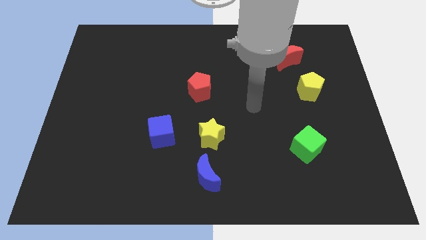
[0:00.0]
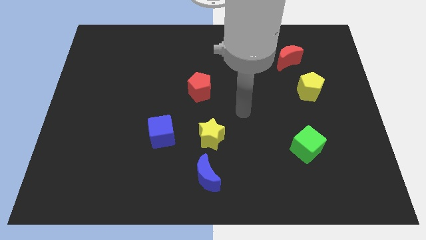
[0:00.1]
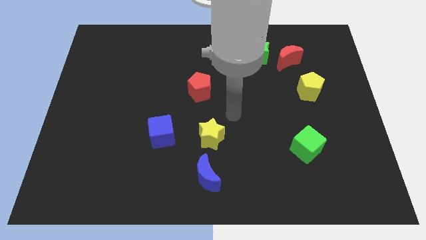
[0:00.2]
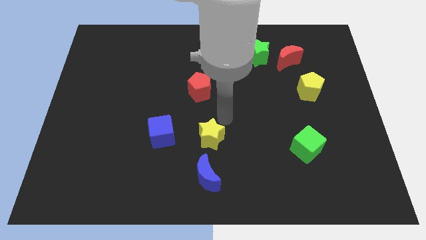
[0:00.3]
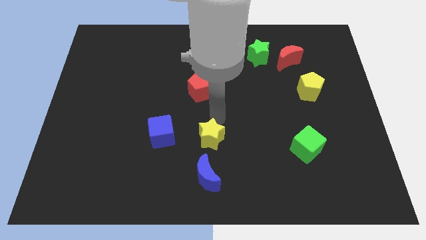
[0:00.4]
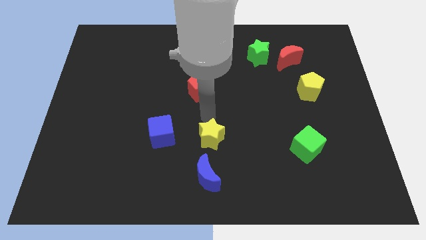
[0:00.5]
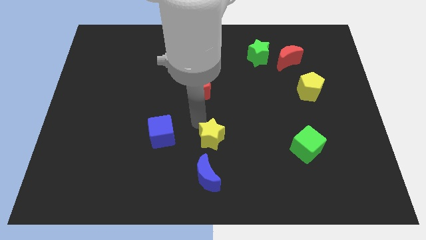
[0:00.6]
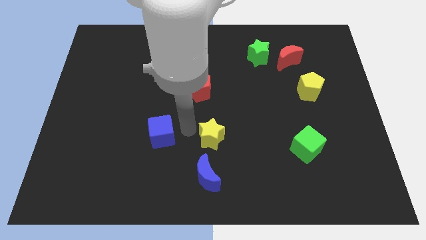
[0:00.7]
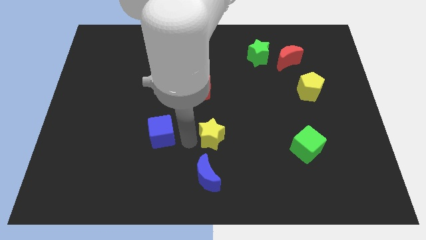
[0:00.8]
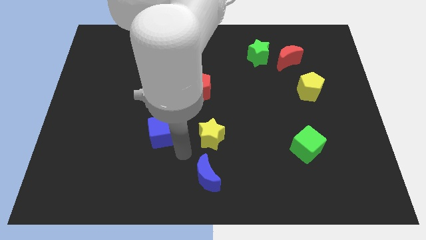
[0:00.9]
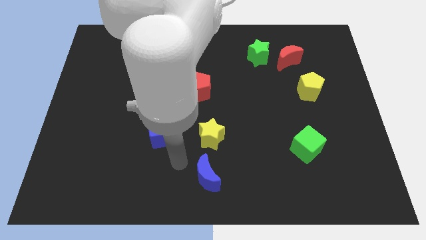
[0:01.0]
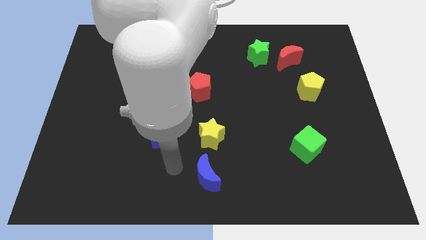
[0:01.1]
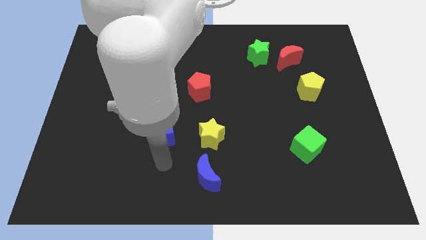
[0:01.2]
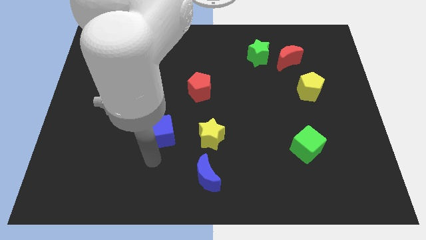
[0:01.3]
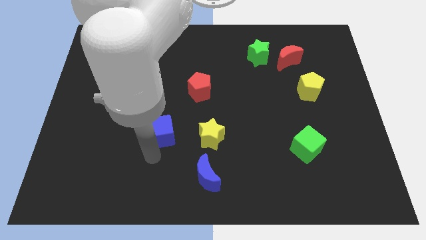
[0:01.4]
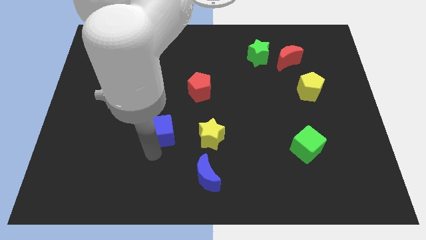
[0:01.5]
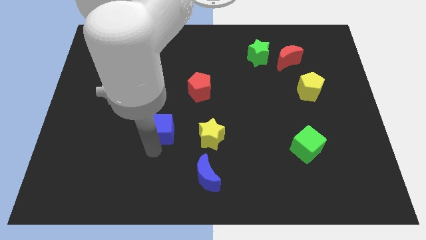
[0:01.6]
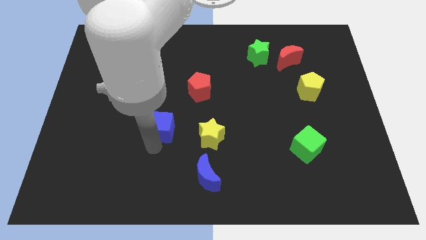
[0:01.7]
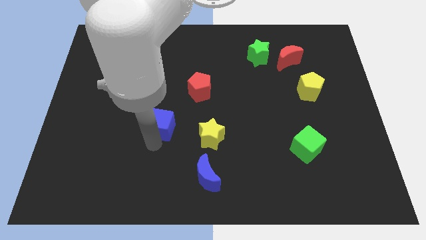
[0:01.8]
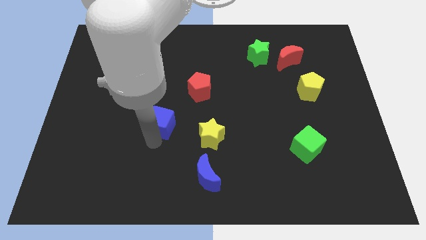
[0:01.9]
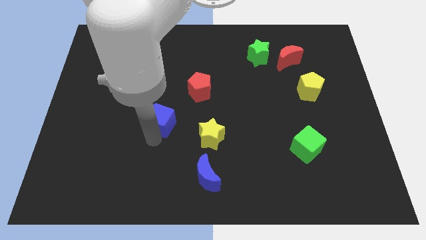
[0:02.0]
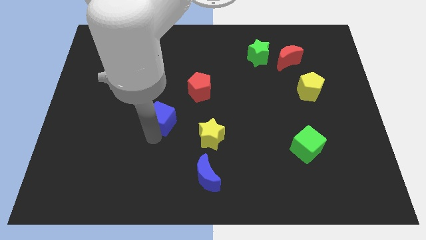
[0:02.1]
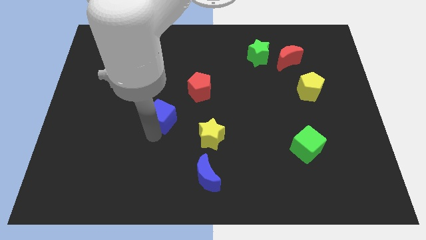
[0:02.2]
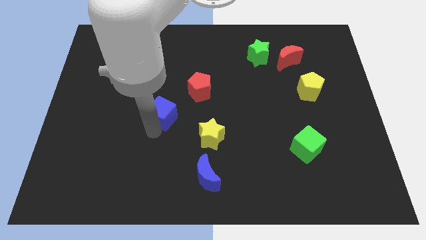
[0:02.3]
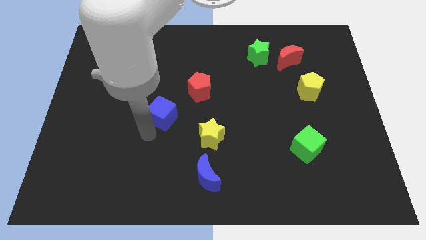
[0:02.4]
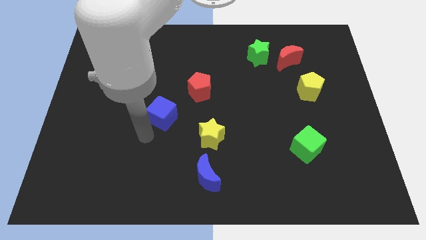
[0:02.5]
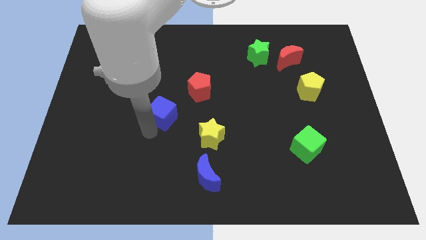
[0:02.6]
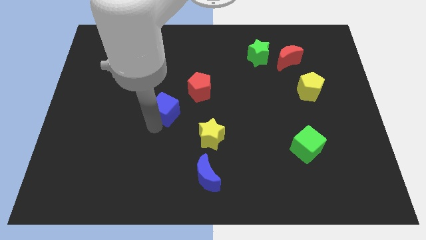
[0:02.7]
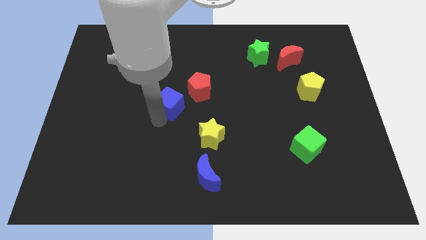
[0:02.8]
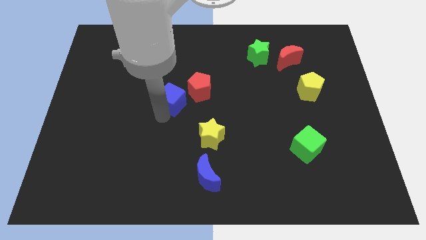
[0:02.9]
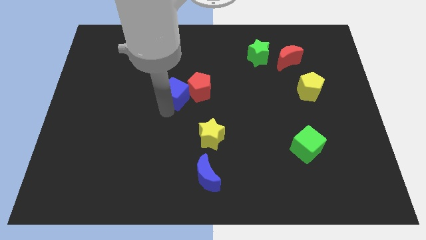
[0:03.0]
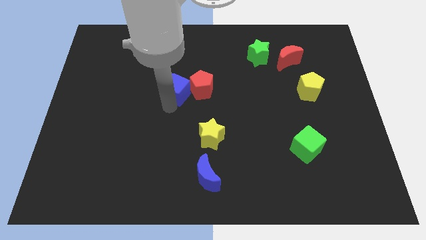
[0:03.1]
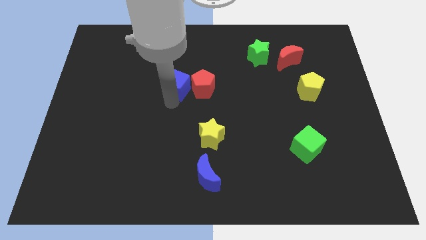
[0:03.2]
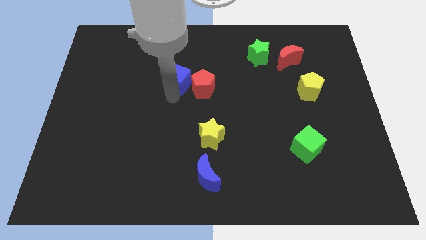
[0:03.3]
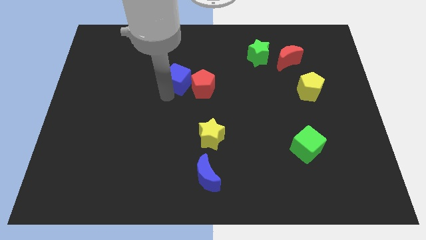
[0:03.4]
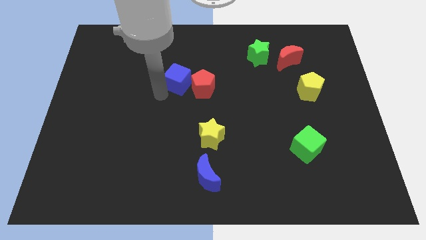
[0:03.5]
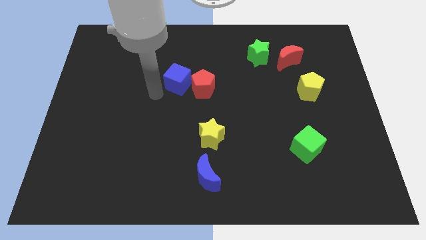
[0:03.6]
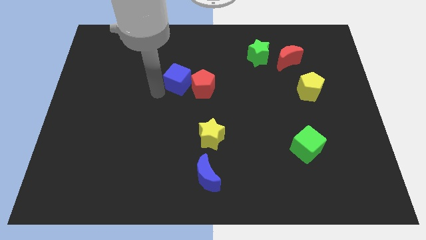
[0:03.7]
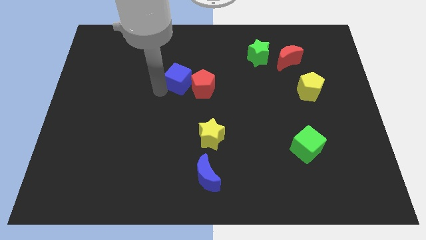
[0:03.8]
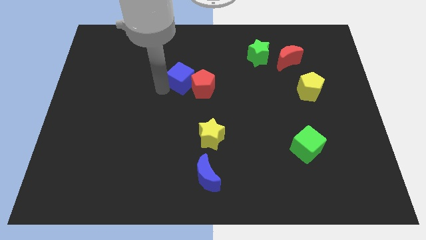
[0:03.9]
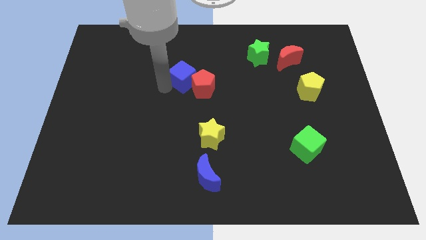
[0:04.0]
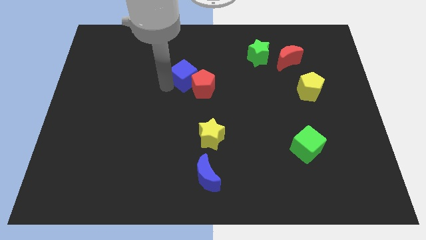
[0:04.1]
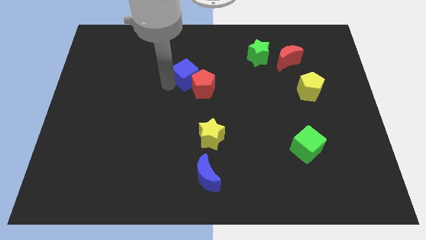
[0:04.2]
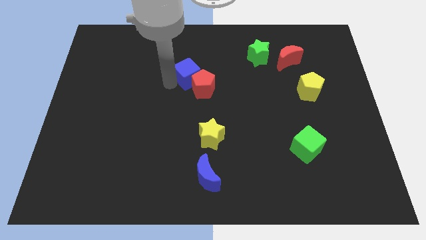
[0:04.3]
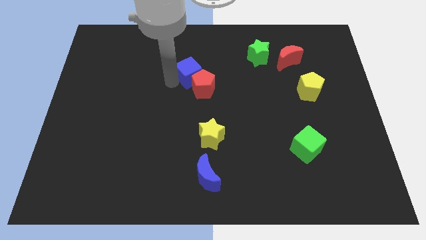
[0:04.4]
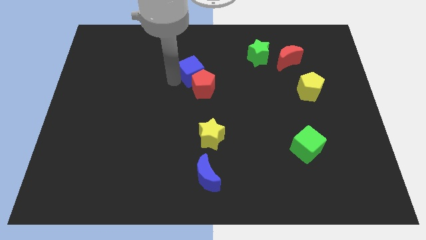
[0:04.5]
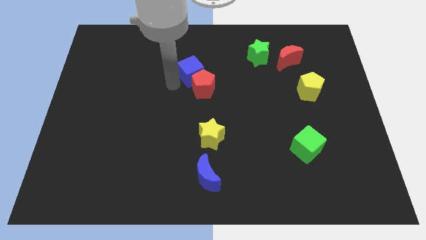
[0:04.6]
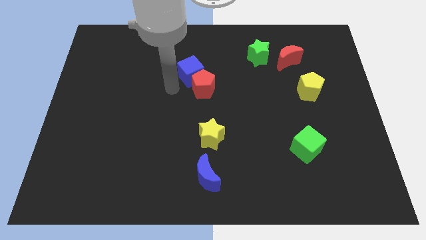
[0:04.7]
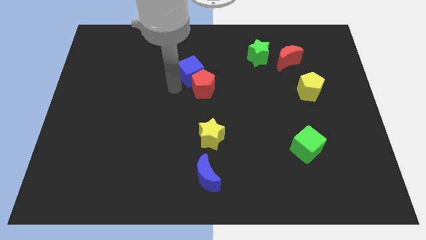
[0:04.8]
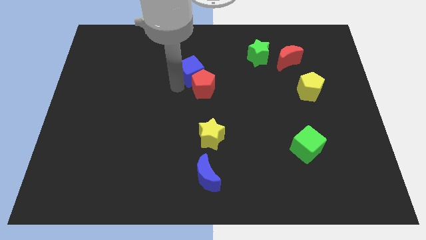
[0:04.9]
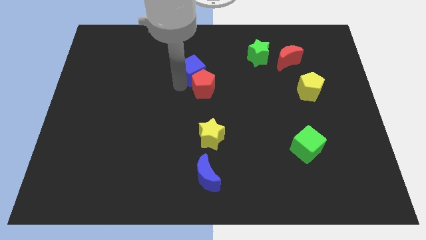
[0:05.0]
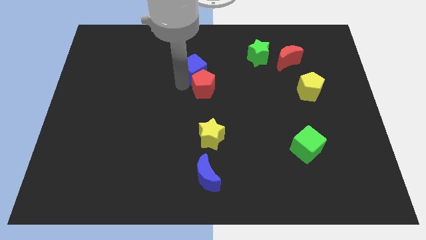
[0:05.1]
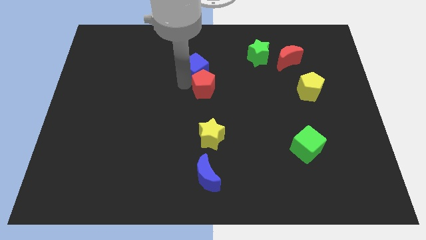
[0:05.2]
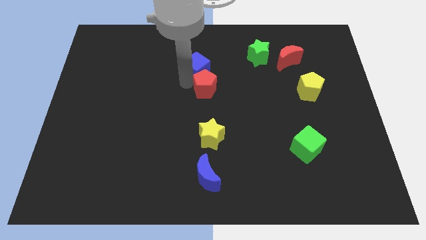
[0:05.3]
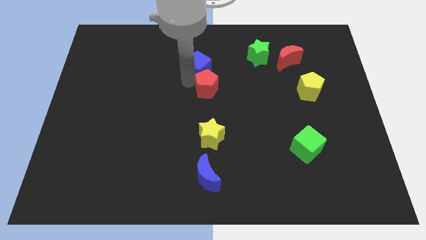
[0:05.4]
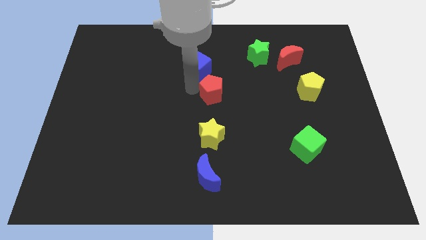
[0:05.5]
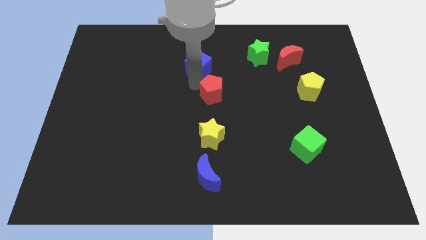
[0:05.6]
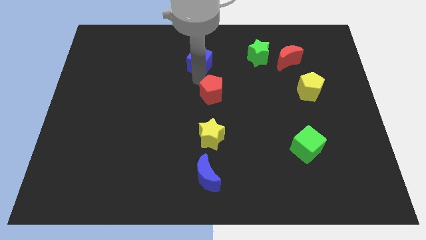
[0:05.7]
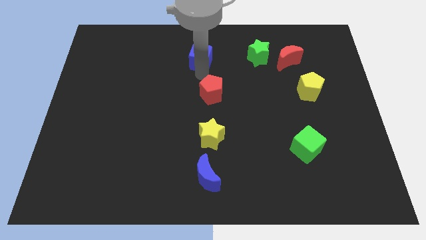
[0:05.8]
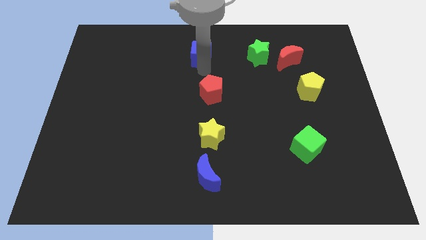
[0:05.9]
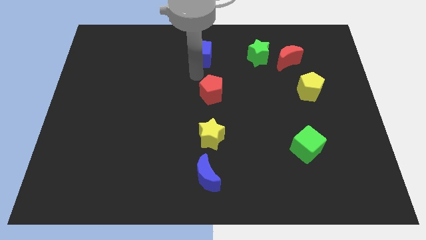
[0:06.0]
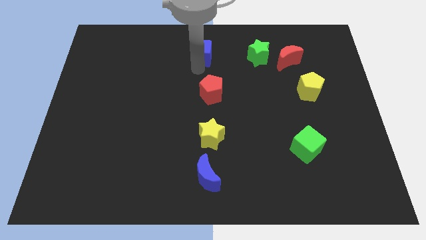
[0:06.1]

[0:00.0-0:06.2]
push the blue cube to the towards your base

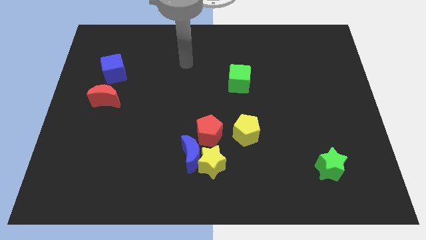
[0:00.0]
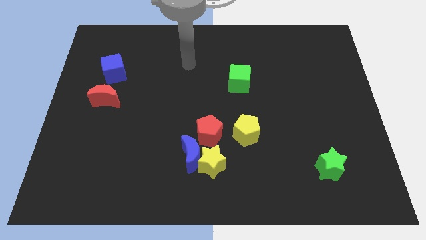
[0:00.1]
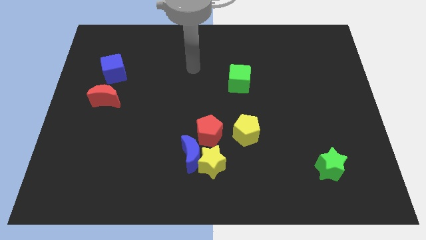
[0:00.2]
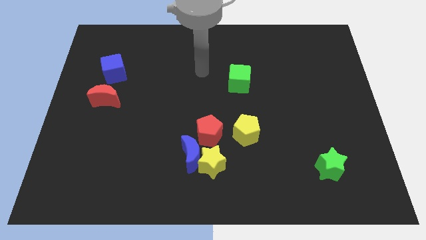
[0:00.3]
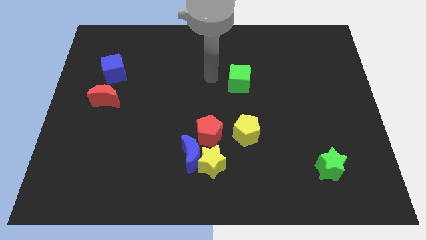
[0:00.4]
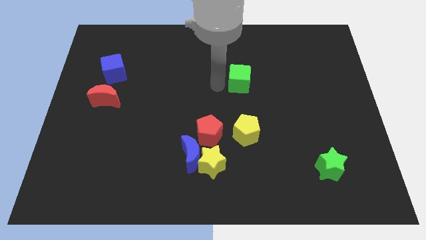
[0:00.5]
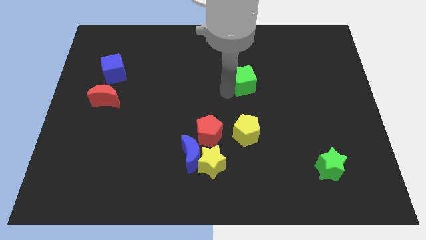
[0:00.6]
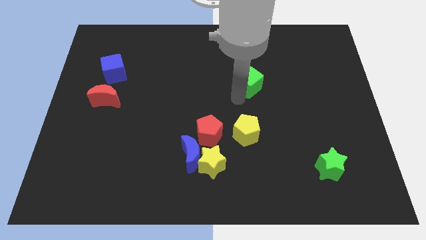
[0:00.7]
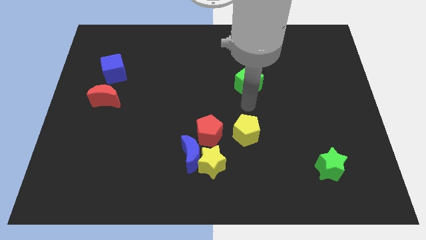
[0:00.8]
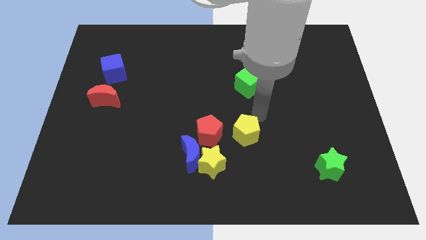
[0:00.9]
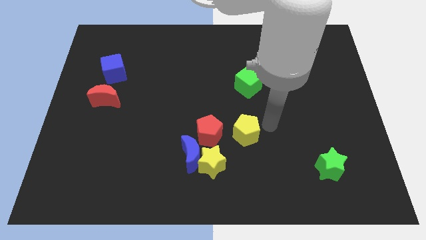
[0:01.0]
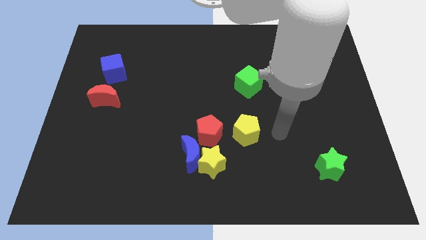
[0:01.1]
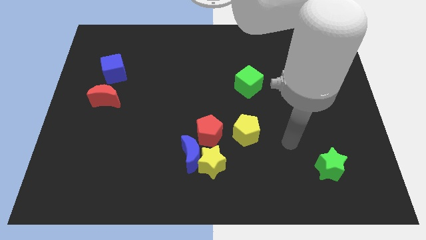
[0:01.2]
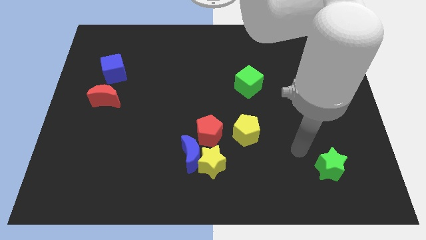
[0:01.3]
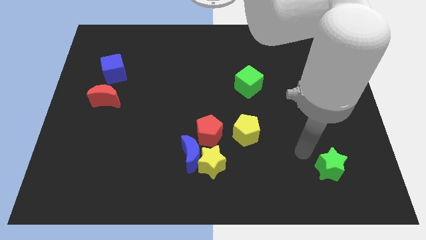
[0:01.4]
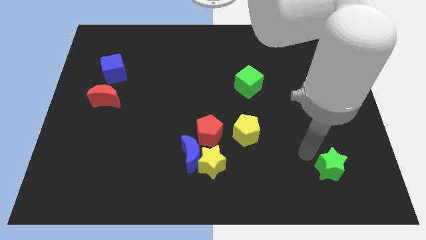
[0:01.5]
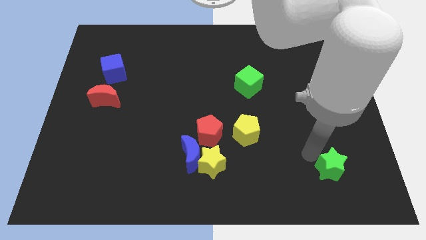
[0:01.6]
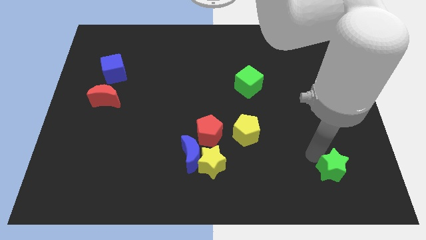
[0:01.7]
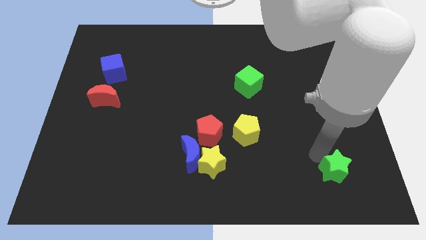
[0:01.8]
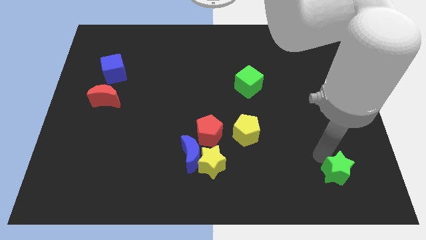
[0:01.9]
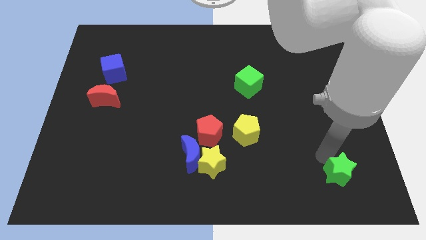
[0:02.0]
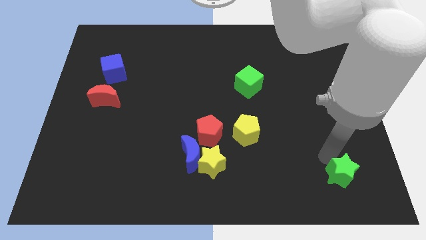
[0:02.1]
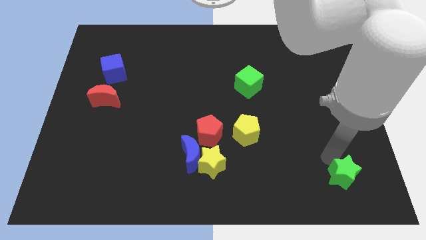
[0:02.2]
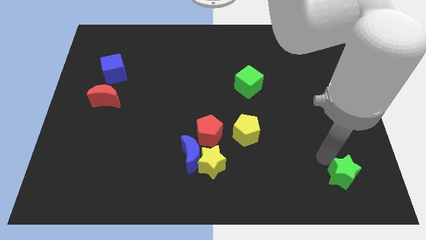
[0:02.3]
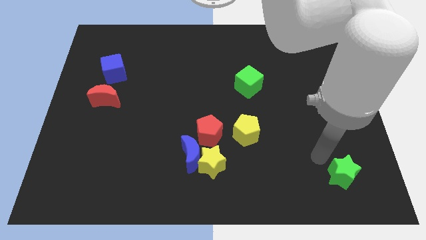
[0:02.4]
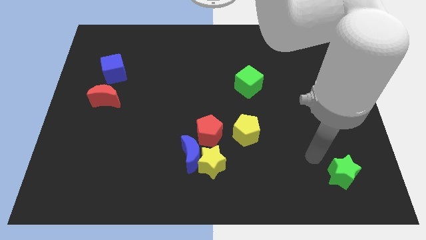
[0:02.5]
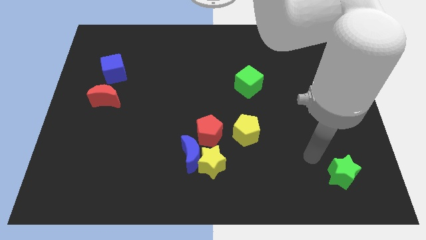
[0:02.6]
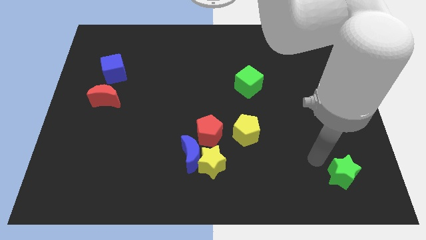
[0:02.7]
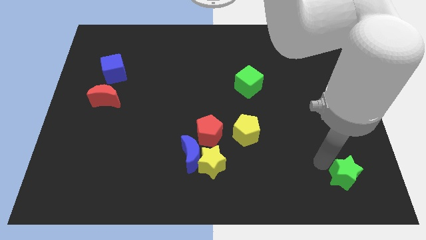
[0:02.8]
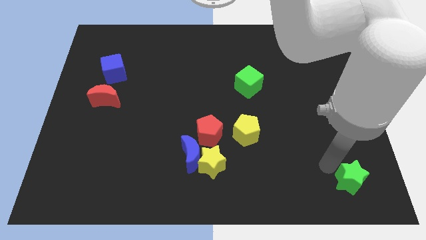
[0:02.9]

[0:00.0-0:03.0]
move the green star to the lower right corner
